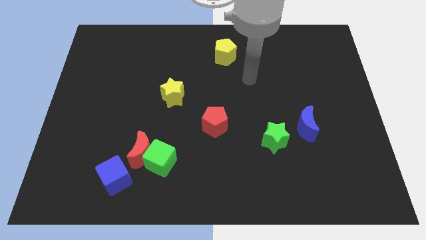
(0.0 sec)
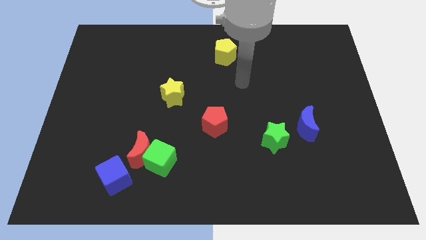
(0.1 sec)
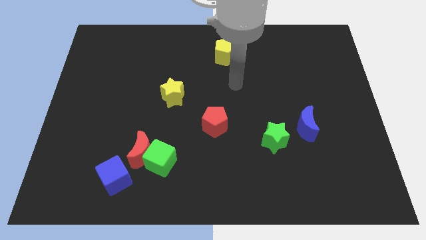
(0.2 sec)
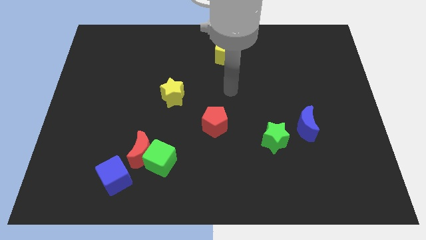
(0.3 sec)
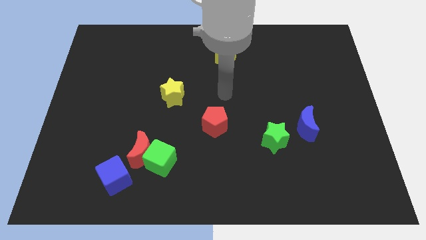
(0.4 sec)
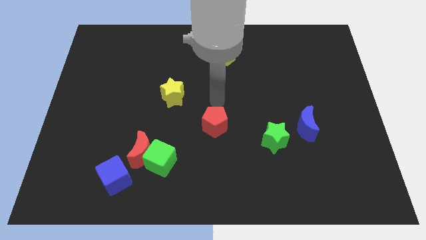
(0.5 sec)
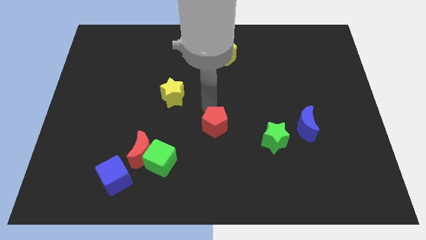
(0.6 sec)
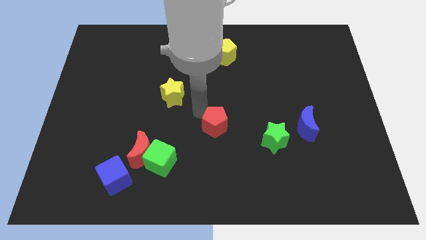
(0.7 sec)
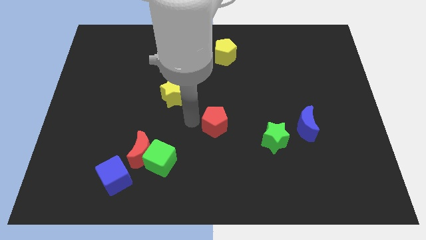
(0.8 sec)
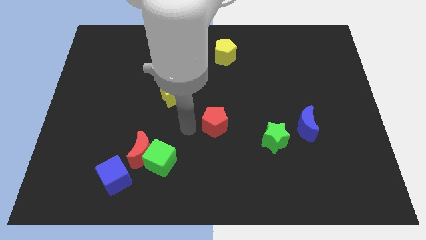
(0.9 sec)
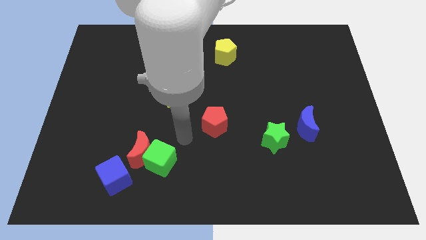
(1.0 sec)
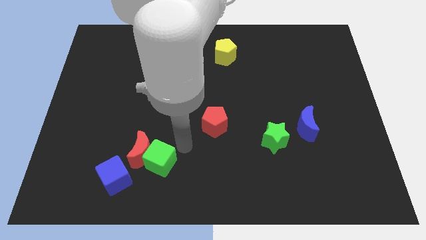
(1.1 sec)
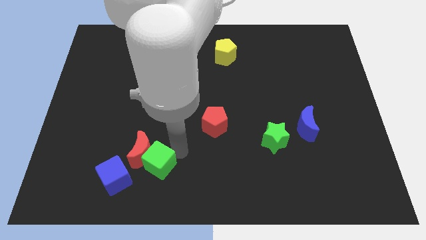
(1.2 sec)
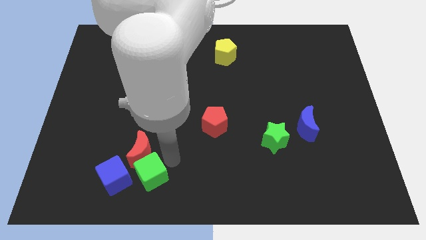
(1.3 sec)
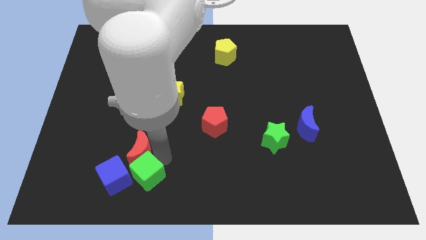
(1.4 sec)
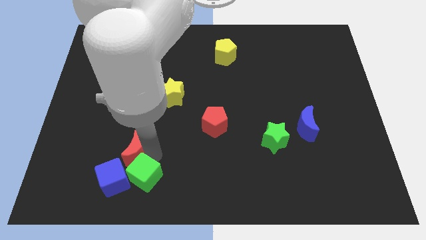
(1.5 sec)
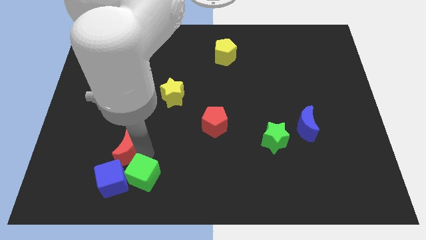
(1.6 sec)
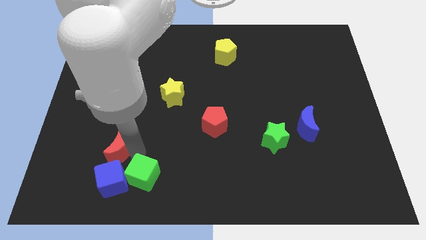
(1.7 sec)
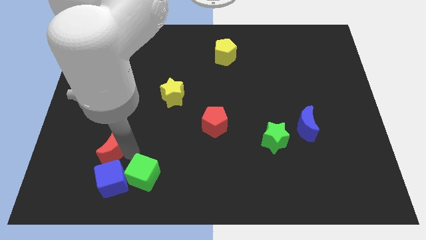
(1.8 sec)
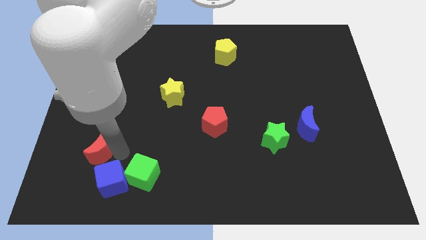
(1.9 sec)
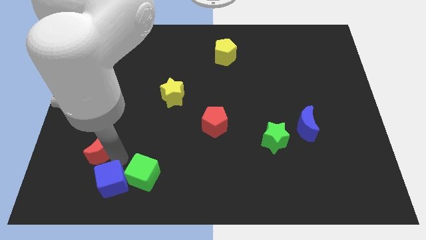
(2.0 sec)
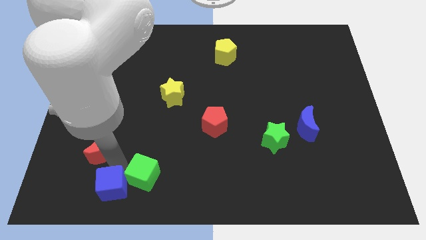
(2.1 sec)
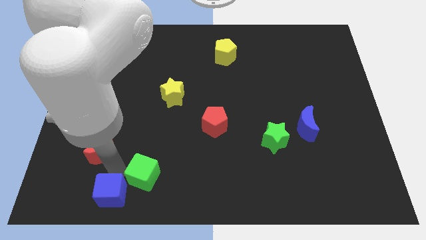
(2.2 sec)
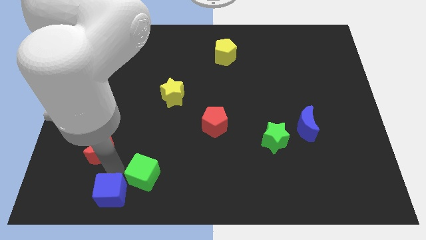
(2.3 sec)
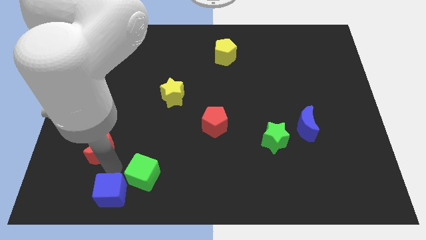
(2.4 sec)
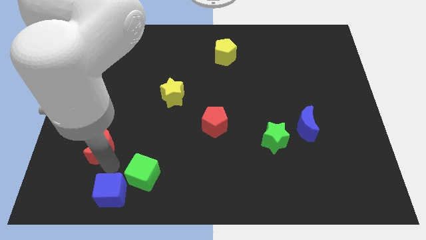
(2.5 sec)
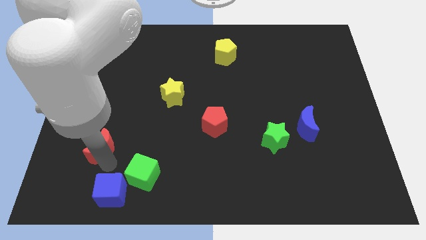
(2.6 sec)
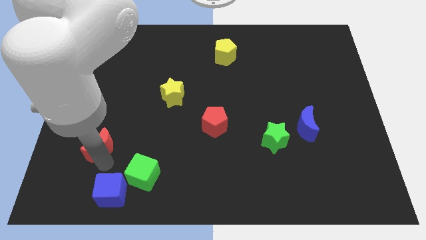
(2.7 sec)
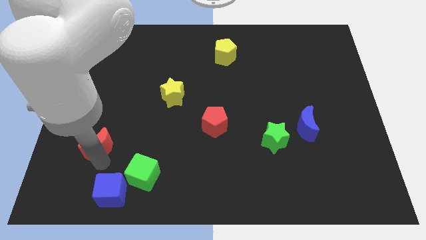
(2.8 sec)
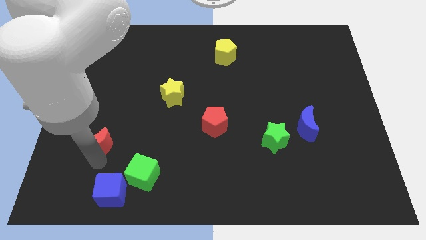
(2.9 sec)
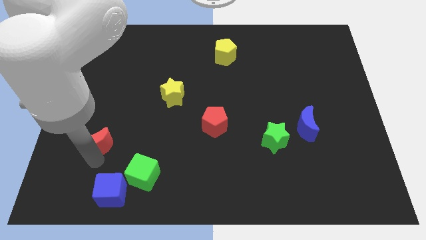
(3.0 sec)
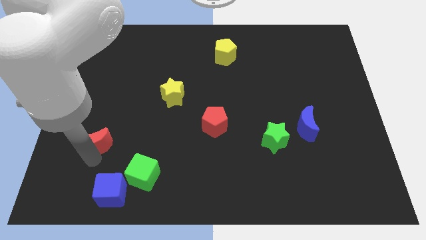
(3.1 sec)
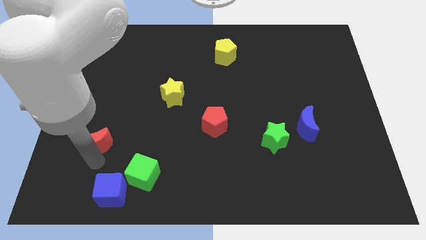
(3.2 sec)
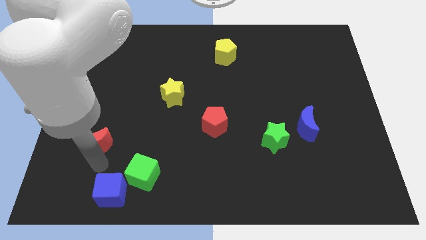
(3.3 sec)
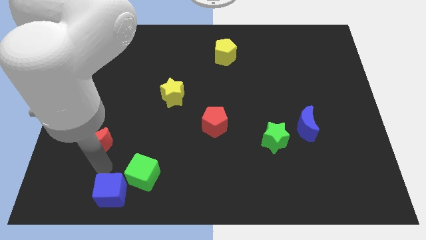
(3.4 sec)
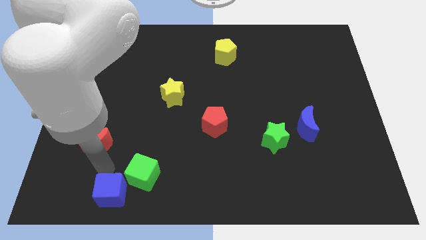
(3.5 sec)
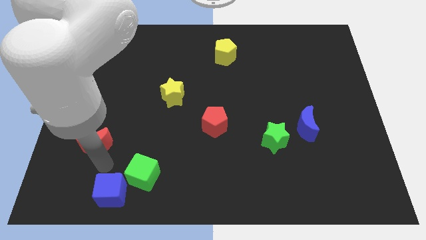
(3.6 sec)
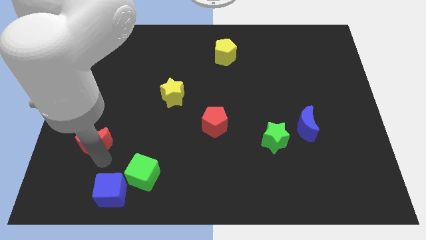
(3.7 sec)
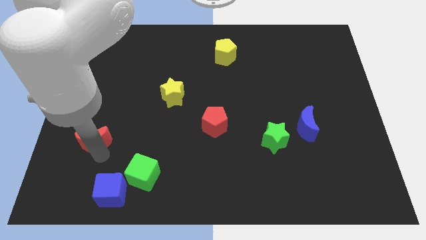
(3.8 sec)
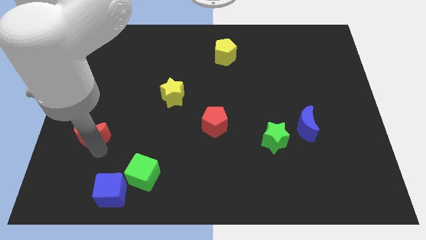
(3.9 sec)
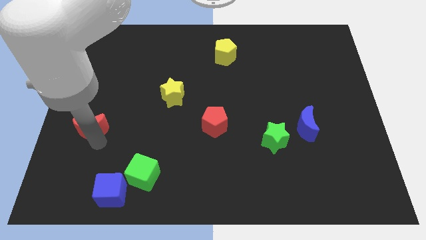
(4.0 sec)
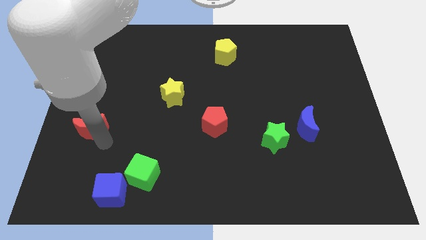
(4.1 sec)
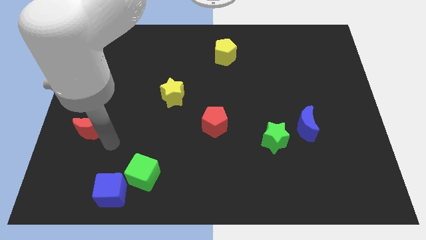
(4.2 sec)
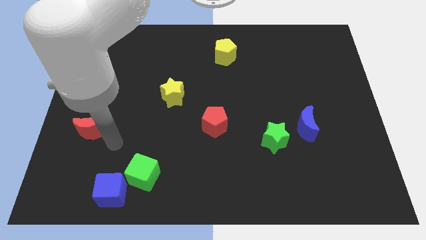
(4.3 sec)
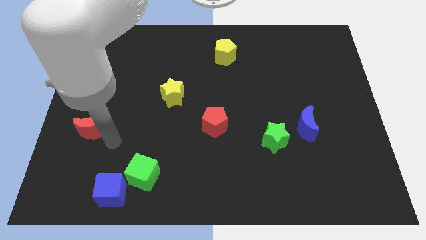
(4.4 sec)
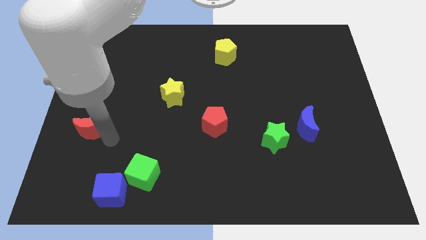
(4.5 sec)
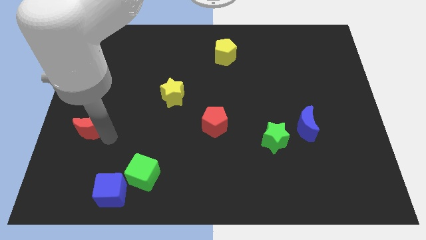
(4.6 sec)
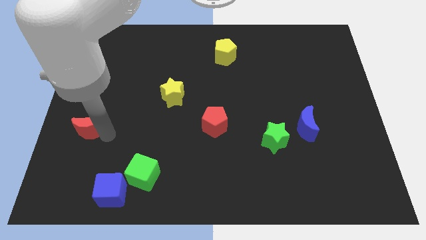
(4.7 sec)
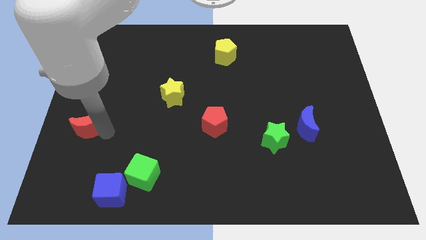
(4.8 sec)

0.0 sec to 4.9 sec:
put the red moon to the left side of the board

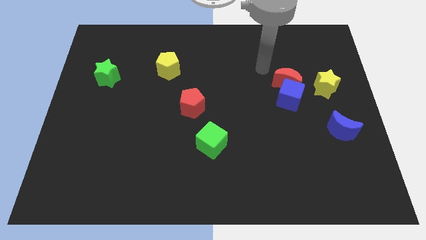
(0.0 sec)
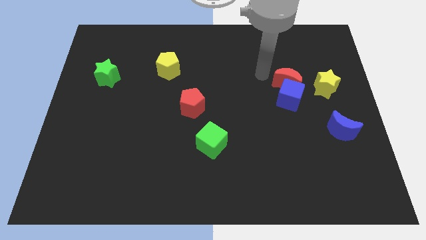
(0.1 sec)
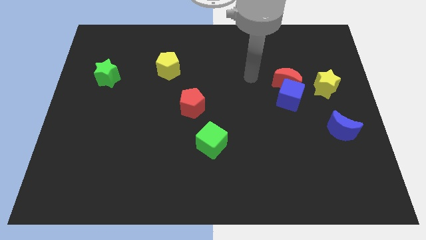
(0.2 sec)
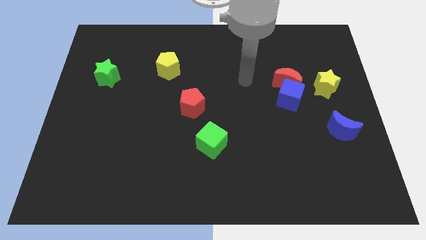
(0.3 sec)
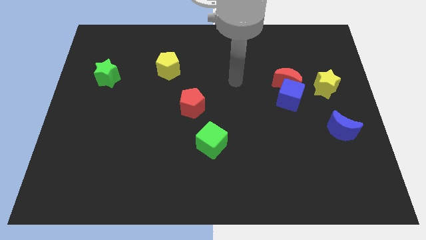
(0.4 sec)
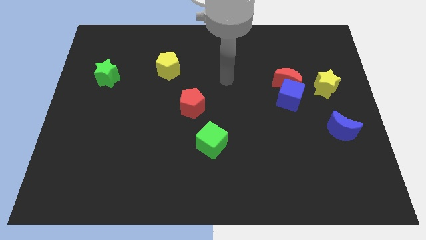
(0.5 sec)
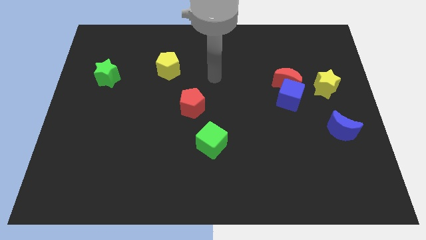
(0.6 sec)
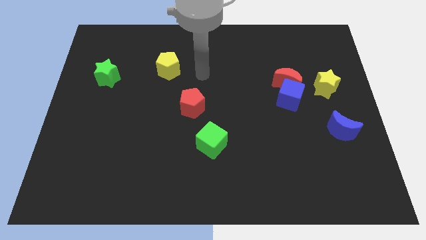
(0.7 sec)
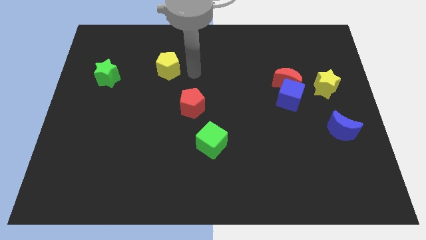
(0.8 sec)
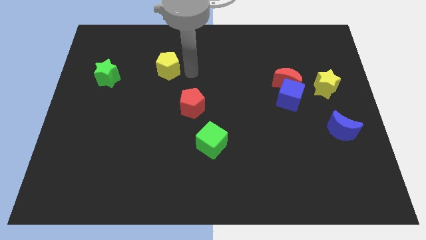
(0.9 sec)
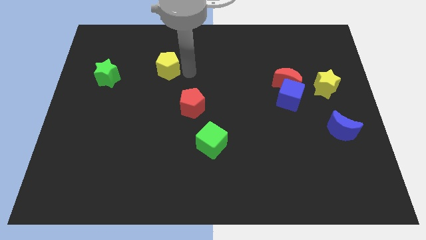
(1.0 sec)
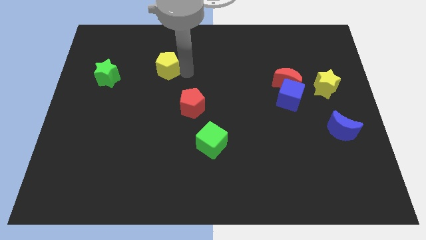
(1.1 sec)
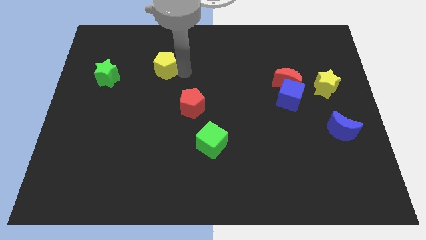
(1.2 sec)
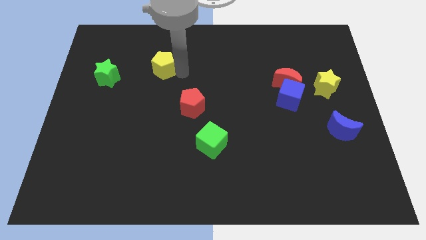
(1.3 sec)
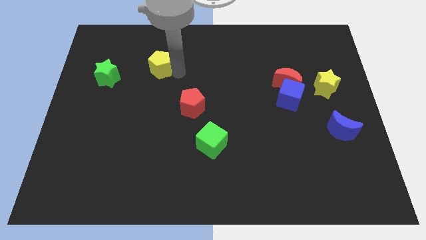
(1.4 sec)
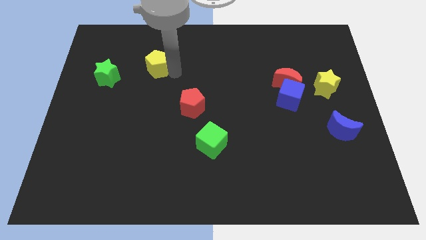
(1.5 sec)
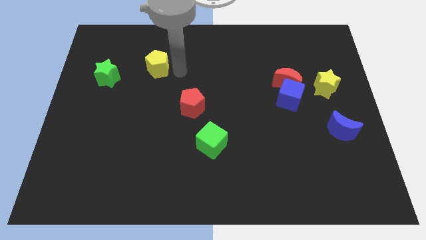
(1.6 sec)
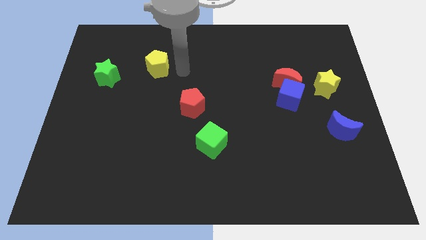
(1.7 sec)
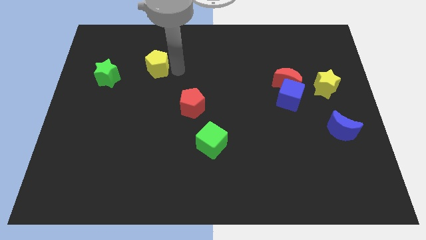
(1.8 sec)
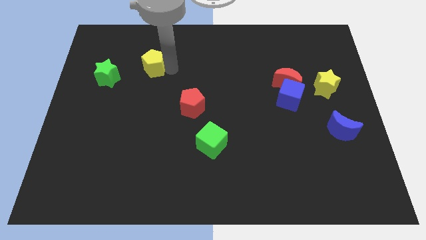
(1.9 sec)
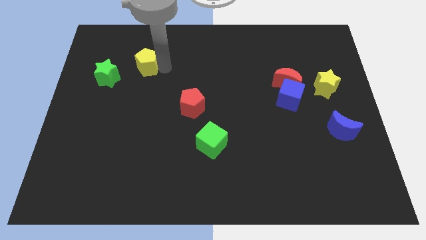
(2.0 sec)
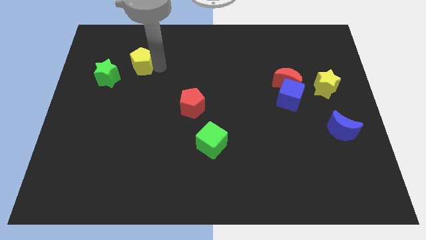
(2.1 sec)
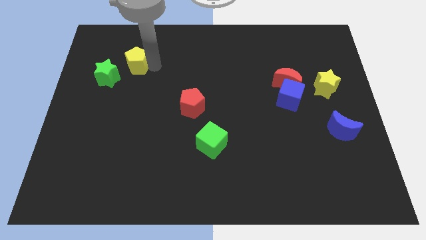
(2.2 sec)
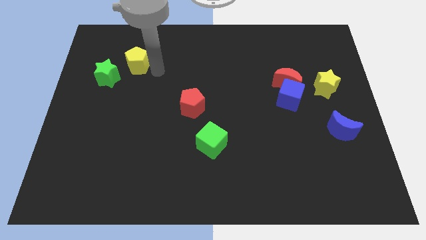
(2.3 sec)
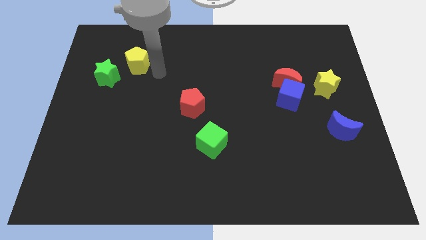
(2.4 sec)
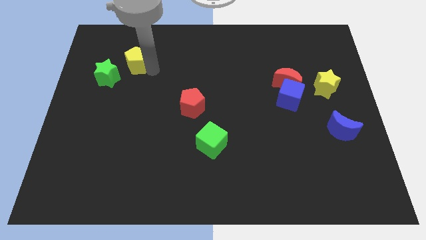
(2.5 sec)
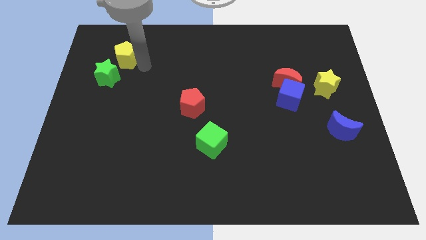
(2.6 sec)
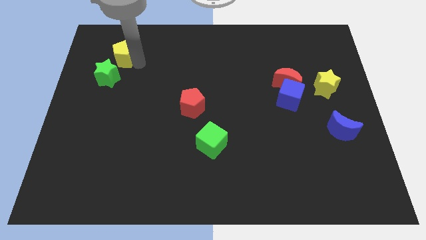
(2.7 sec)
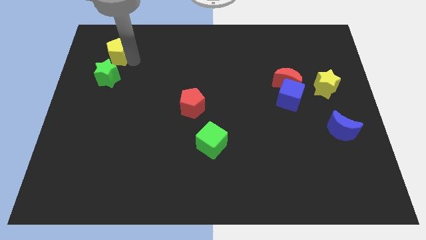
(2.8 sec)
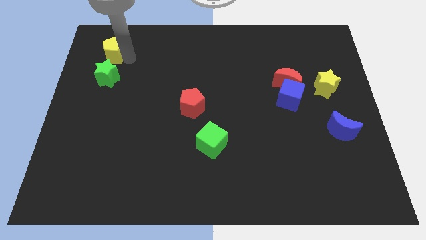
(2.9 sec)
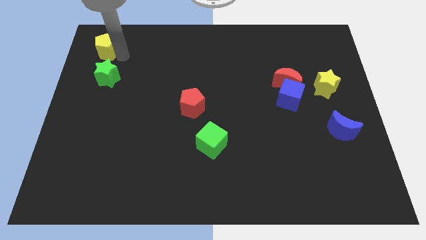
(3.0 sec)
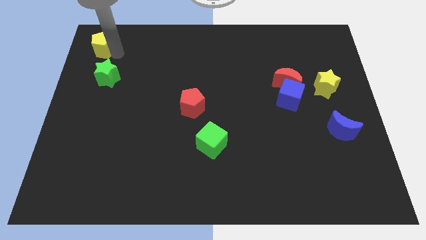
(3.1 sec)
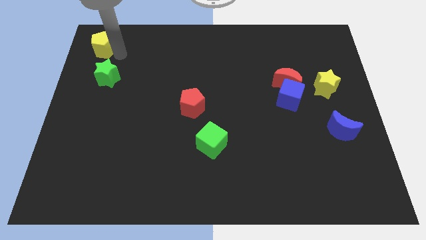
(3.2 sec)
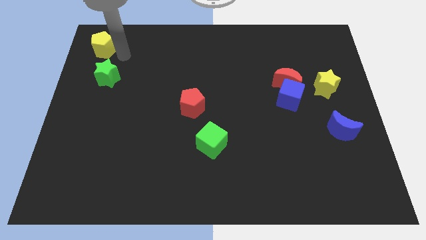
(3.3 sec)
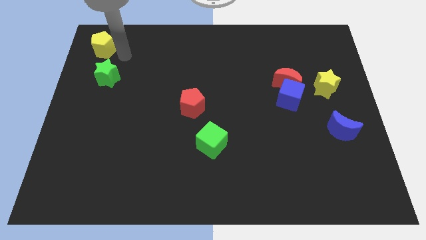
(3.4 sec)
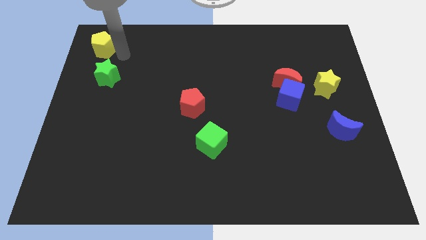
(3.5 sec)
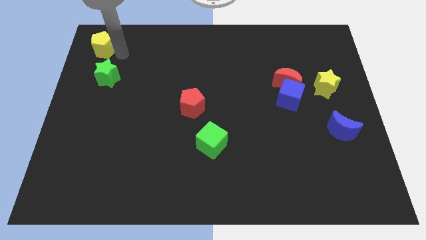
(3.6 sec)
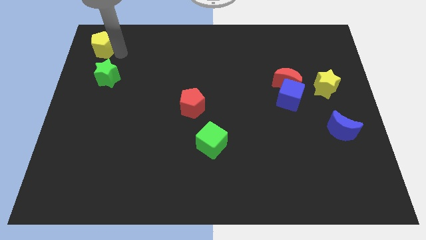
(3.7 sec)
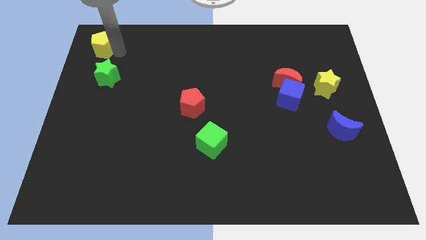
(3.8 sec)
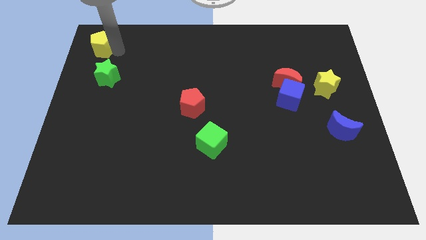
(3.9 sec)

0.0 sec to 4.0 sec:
put the yellow pentagon to the upper left corner
